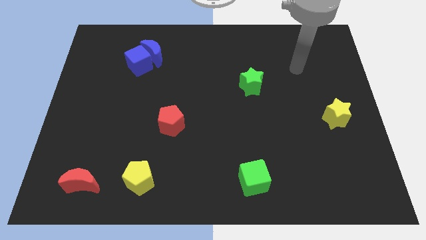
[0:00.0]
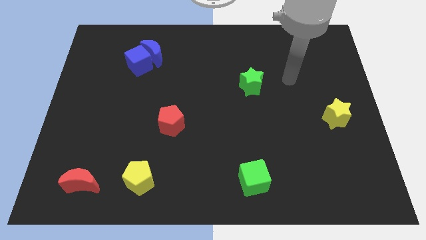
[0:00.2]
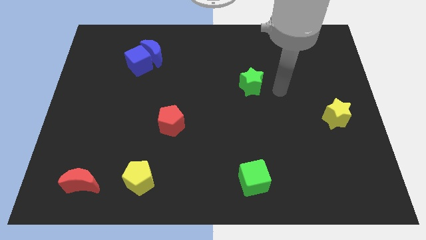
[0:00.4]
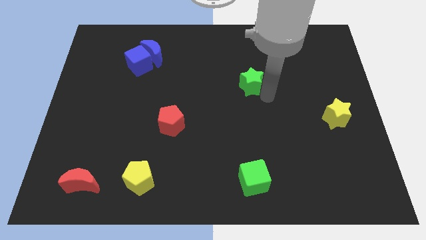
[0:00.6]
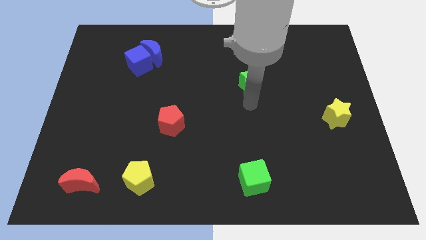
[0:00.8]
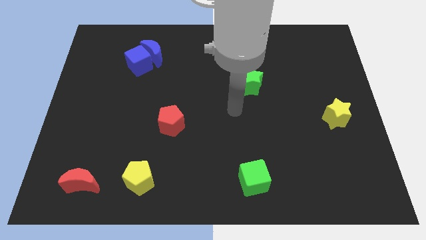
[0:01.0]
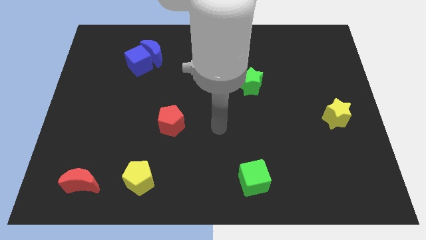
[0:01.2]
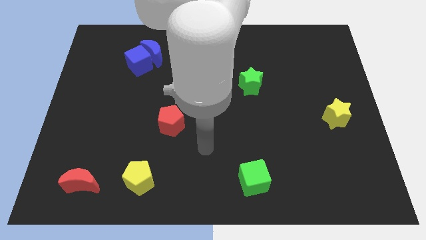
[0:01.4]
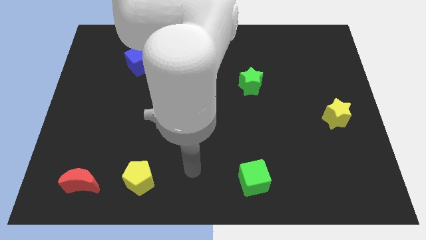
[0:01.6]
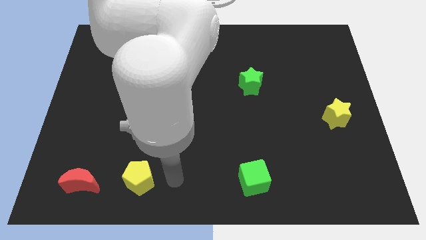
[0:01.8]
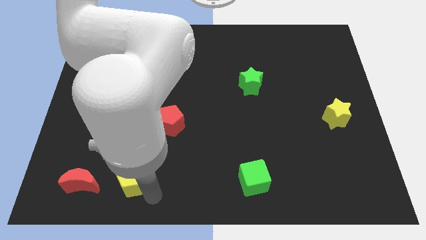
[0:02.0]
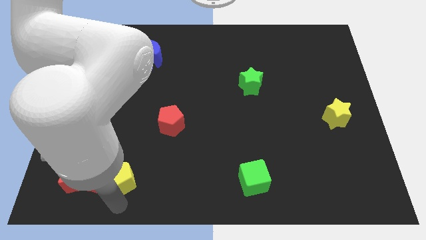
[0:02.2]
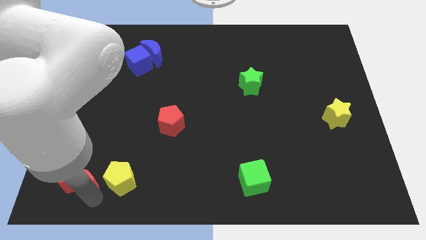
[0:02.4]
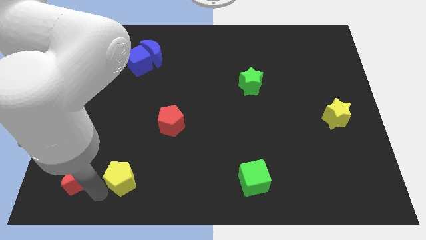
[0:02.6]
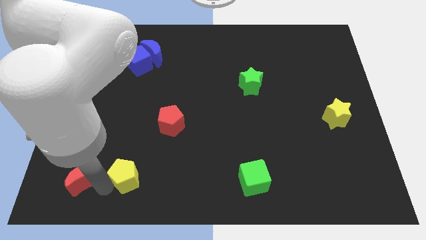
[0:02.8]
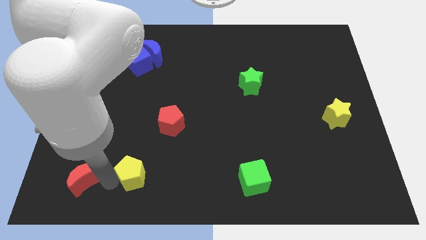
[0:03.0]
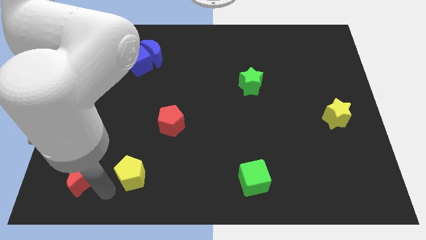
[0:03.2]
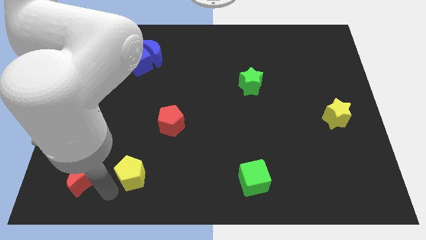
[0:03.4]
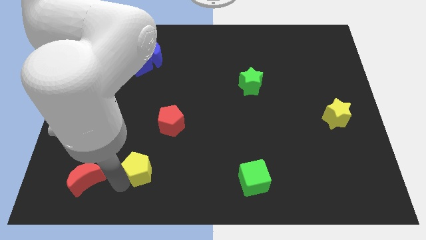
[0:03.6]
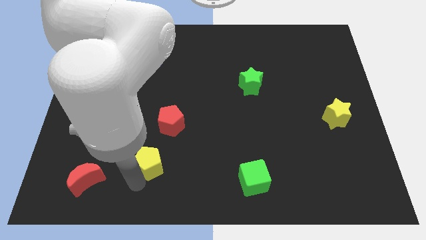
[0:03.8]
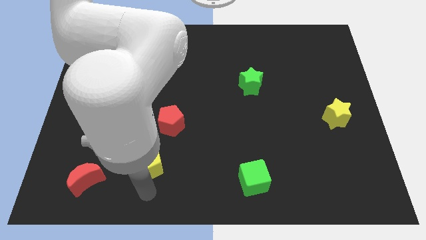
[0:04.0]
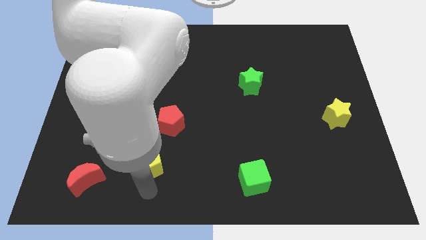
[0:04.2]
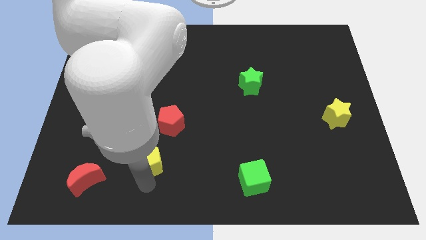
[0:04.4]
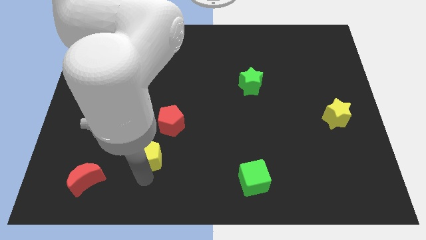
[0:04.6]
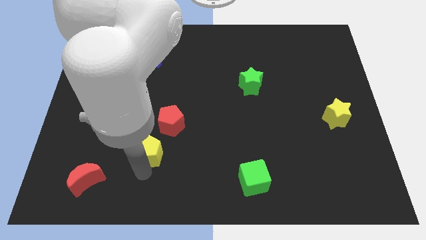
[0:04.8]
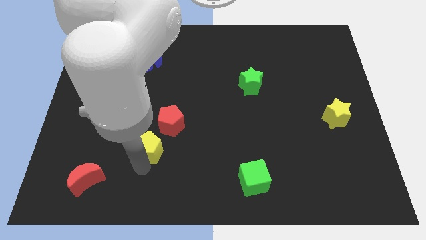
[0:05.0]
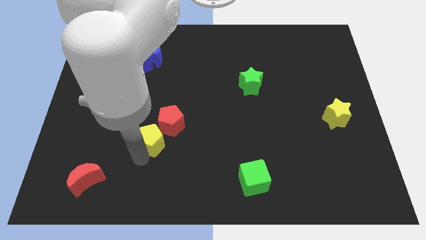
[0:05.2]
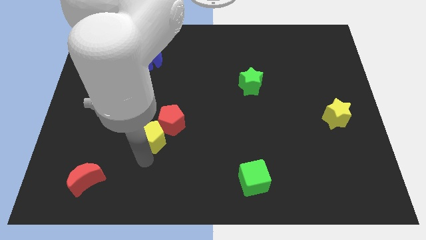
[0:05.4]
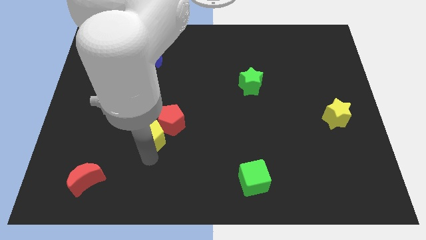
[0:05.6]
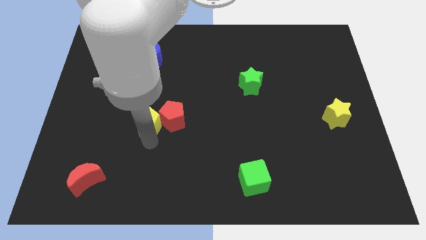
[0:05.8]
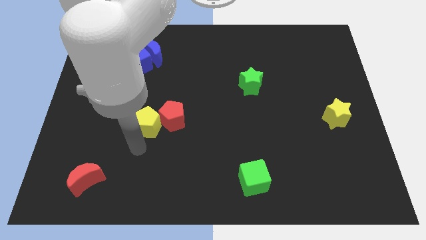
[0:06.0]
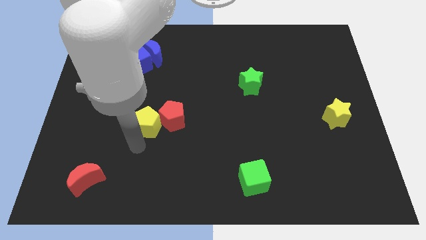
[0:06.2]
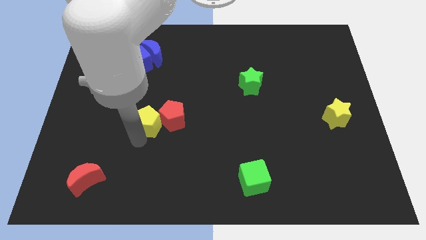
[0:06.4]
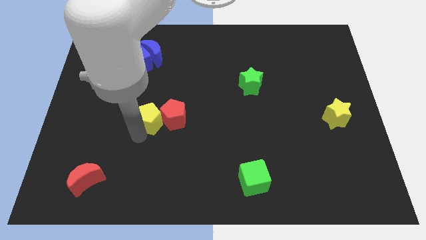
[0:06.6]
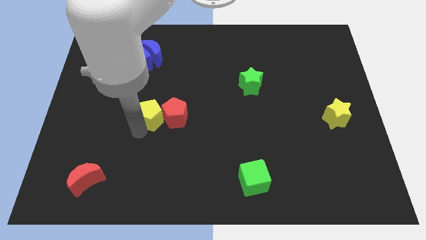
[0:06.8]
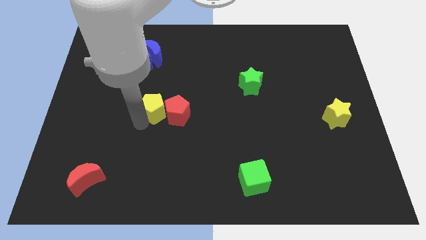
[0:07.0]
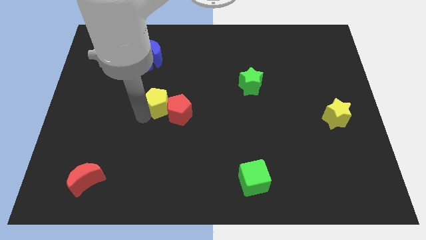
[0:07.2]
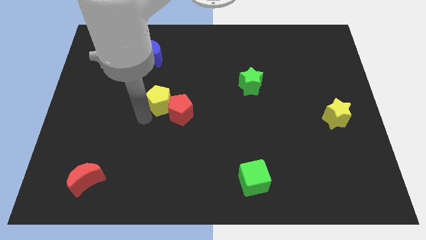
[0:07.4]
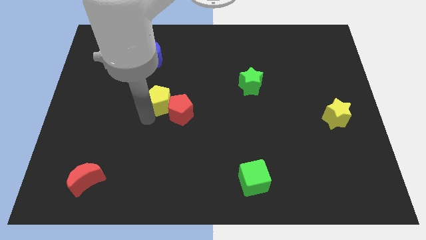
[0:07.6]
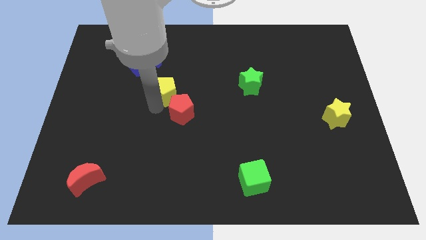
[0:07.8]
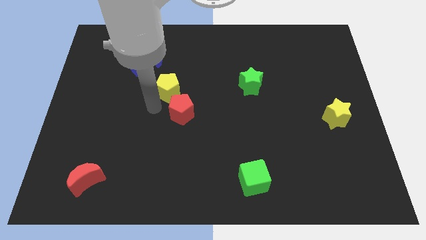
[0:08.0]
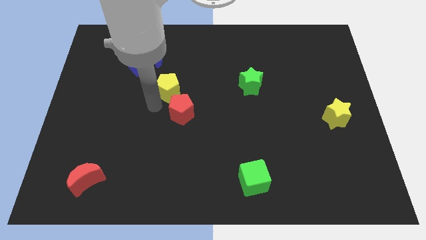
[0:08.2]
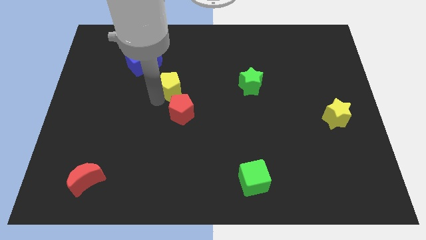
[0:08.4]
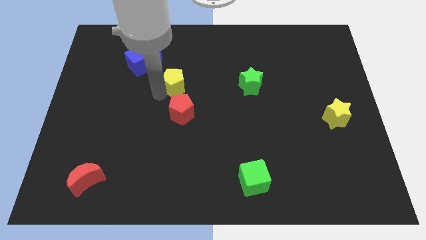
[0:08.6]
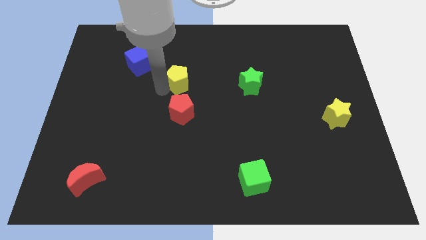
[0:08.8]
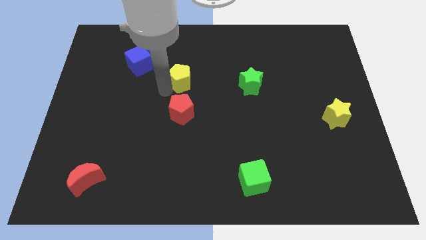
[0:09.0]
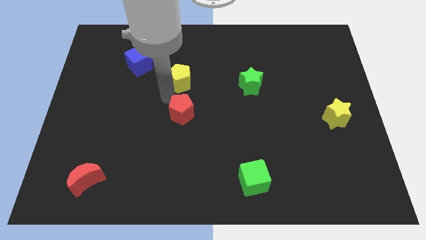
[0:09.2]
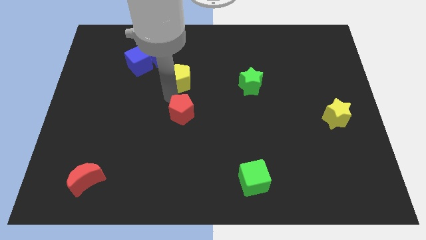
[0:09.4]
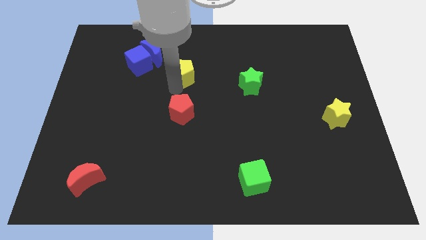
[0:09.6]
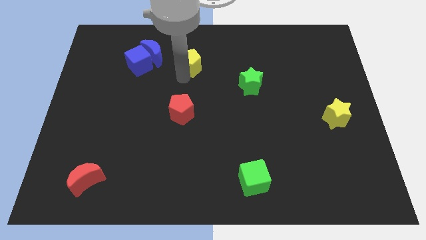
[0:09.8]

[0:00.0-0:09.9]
move the yellow pentagon just right of the blue moon

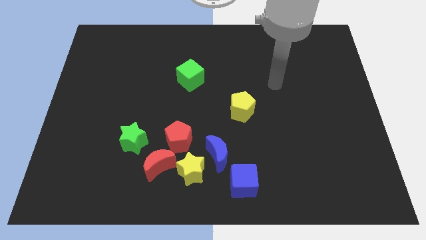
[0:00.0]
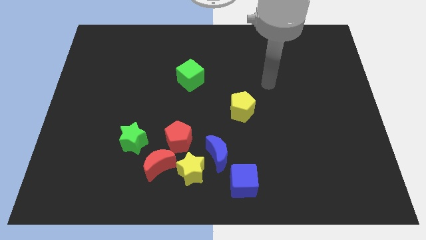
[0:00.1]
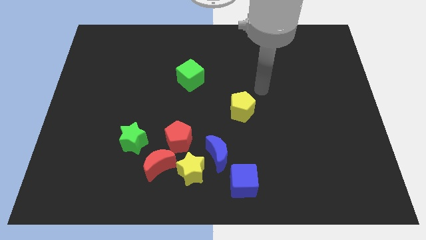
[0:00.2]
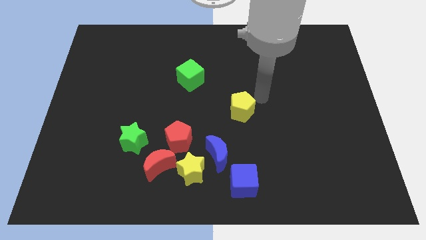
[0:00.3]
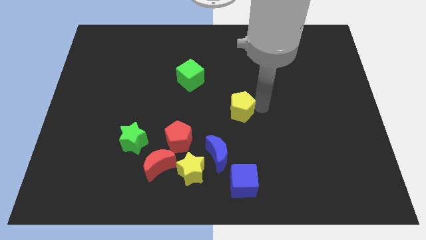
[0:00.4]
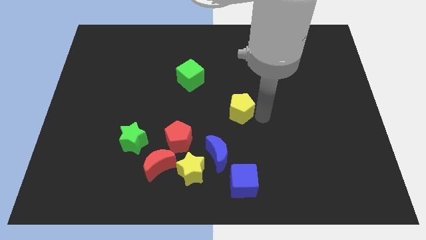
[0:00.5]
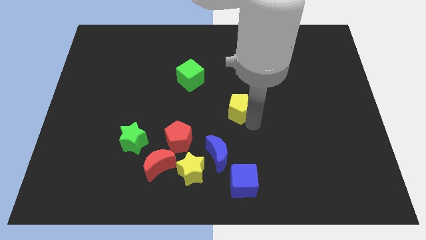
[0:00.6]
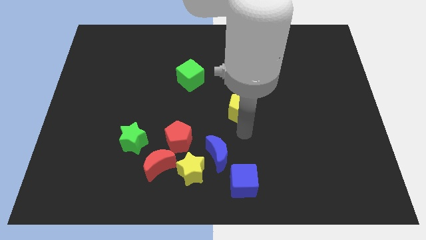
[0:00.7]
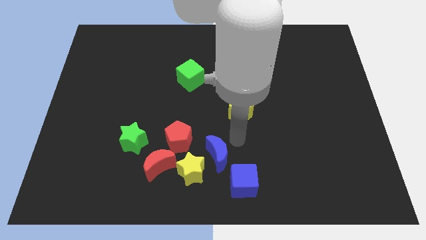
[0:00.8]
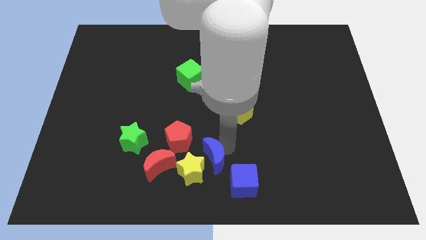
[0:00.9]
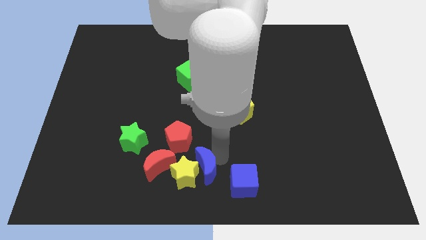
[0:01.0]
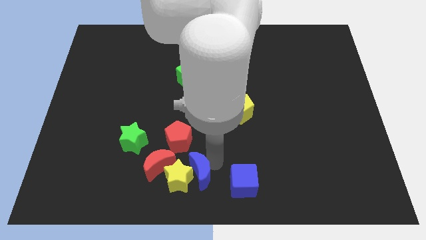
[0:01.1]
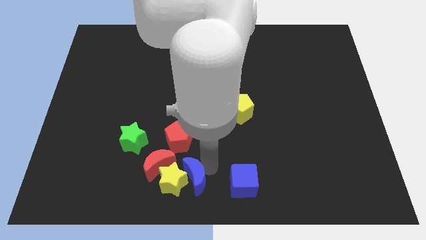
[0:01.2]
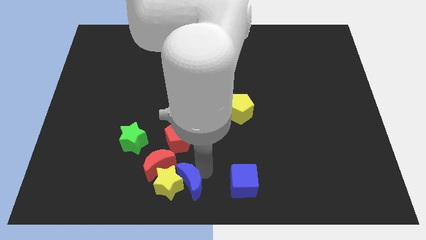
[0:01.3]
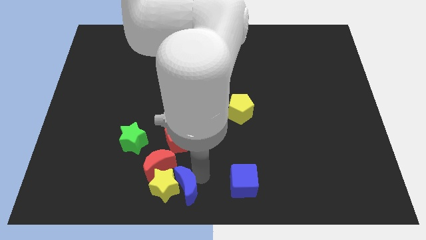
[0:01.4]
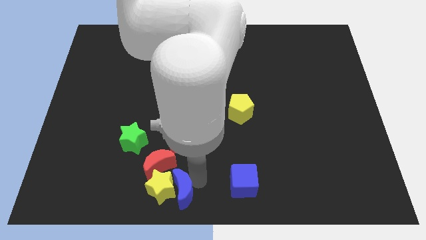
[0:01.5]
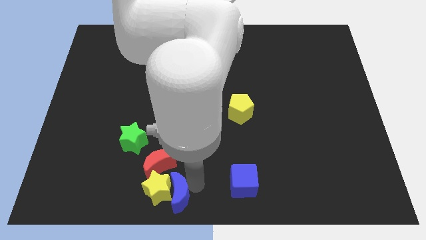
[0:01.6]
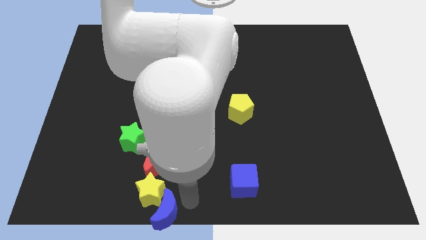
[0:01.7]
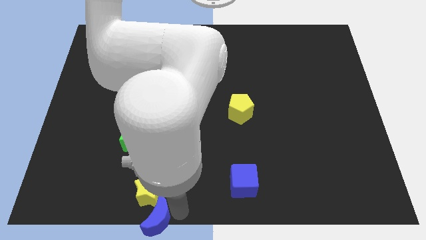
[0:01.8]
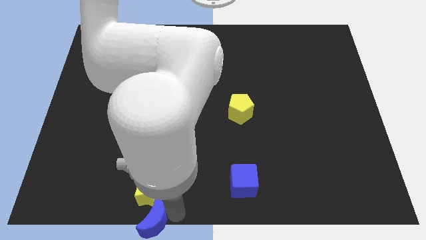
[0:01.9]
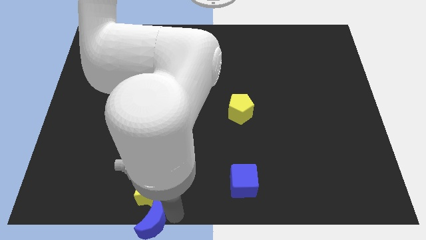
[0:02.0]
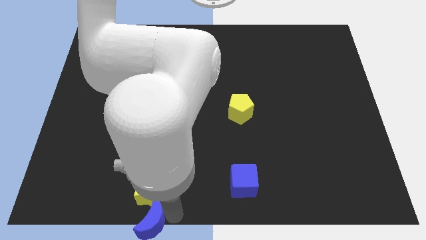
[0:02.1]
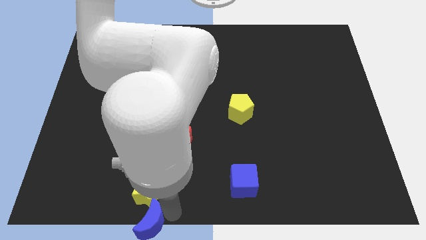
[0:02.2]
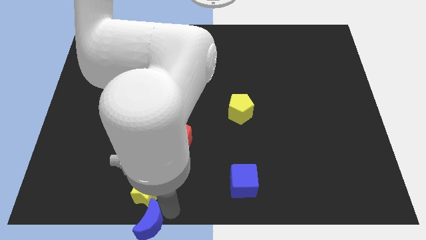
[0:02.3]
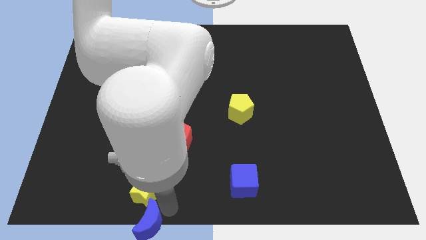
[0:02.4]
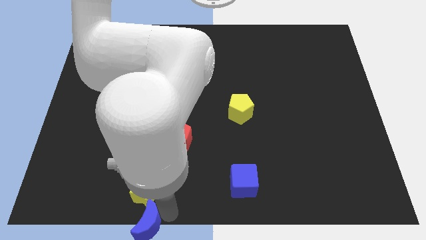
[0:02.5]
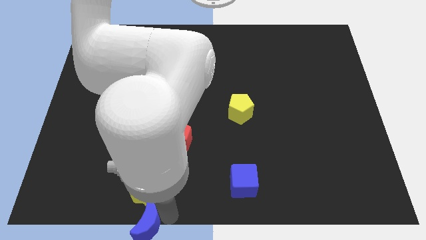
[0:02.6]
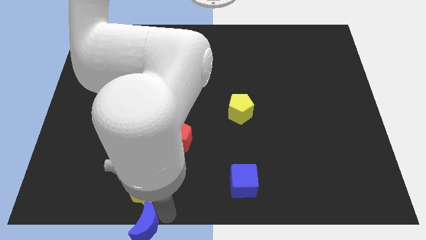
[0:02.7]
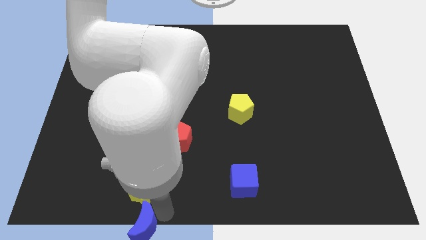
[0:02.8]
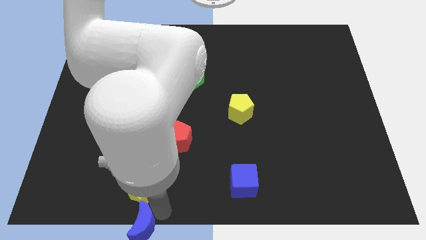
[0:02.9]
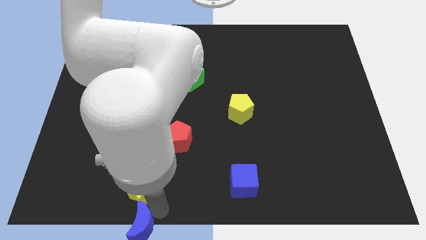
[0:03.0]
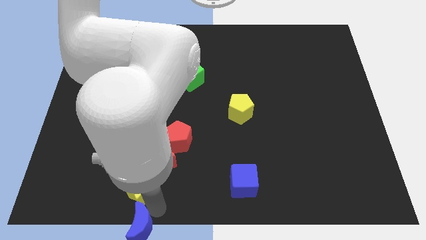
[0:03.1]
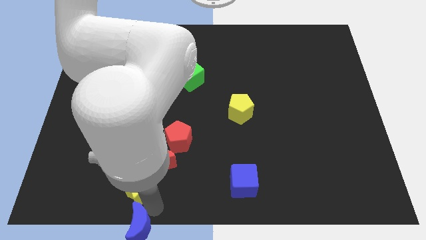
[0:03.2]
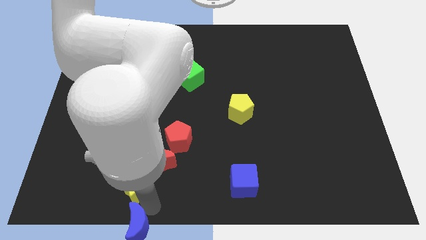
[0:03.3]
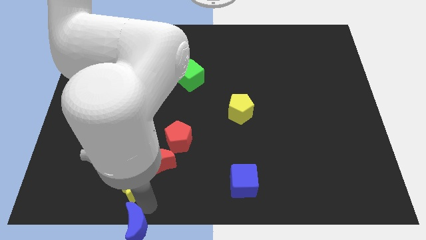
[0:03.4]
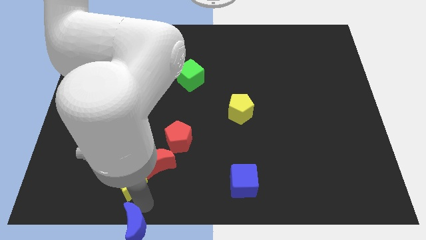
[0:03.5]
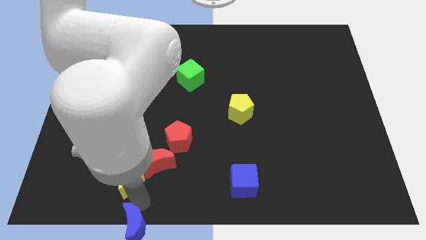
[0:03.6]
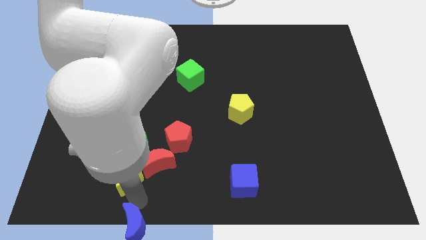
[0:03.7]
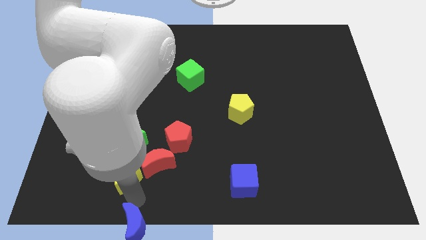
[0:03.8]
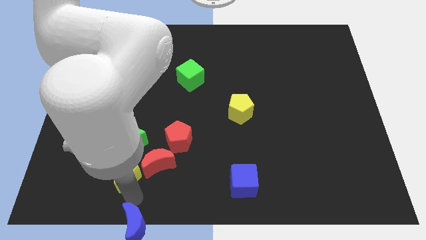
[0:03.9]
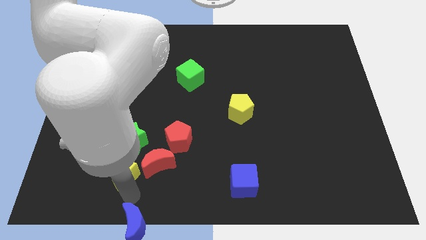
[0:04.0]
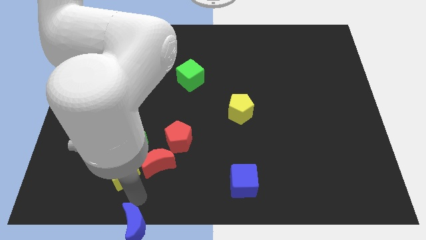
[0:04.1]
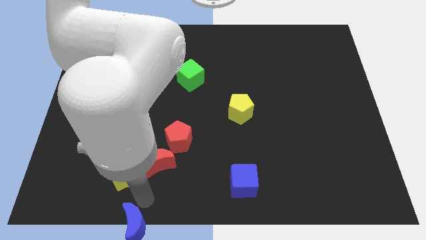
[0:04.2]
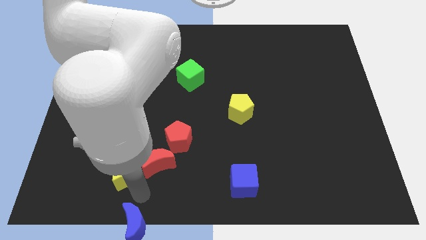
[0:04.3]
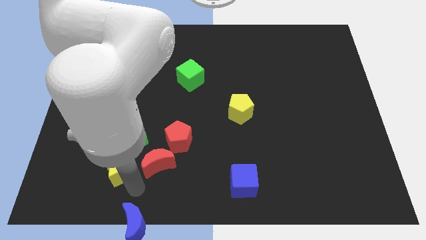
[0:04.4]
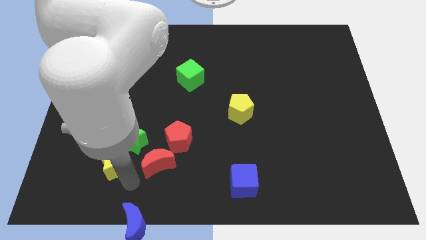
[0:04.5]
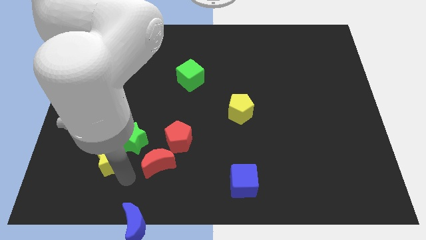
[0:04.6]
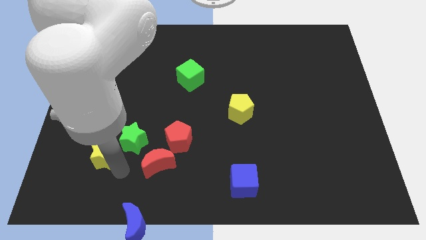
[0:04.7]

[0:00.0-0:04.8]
slide the yellow star left of the green star
